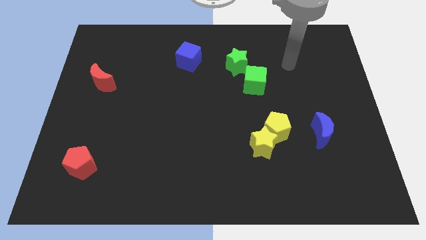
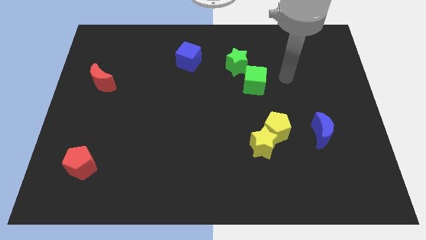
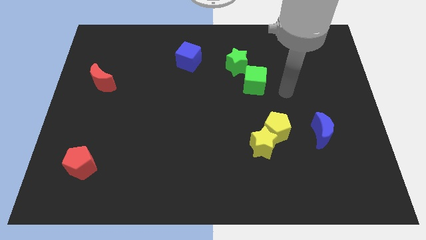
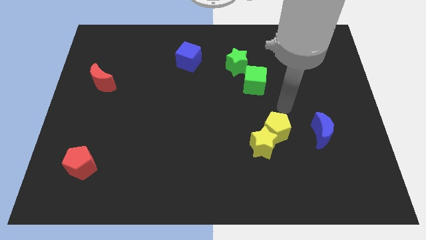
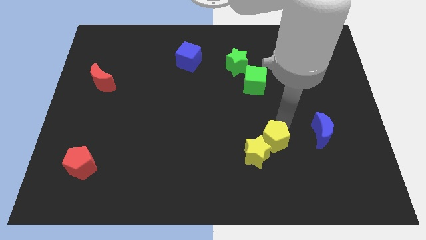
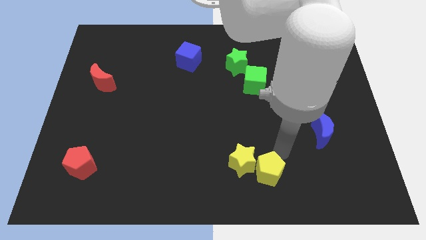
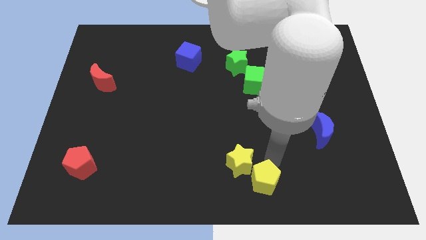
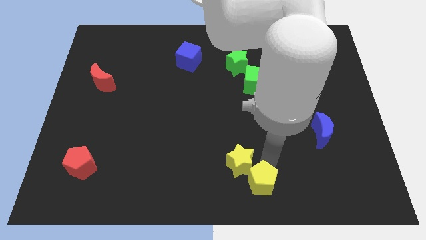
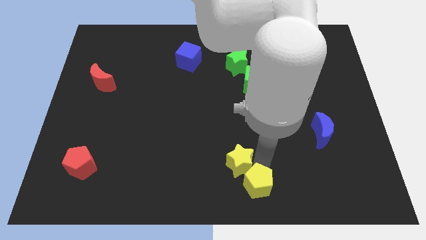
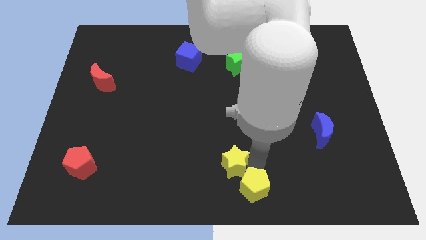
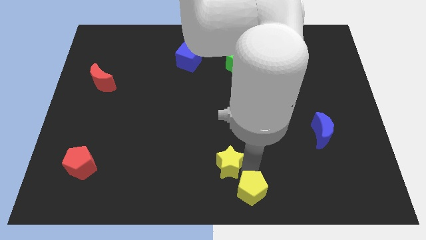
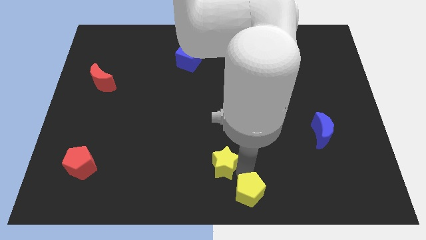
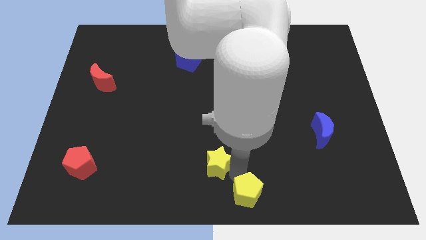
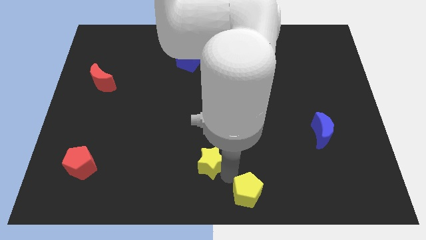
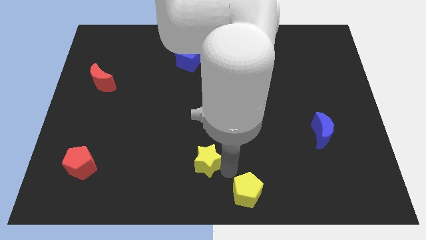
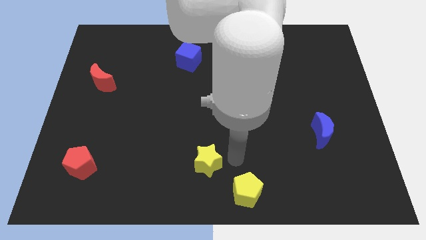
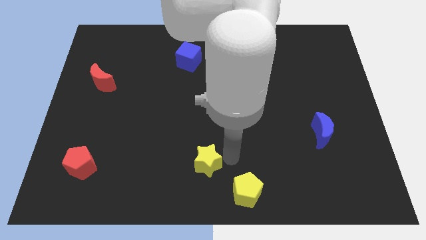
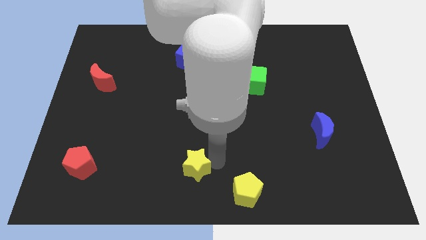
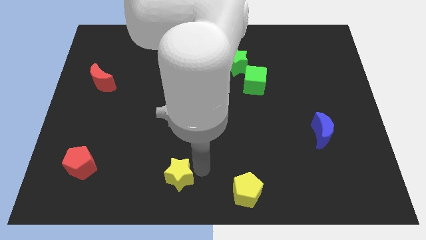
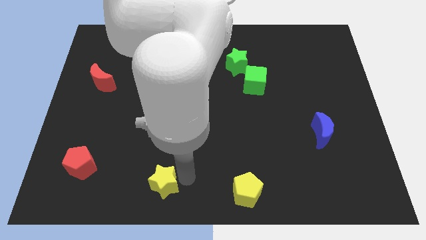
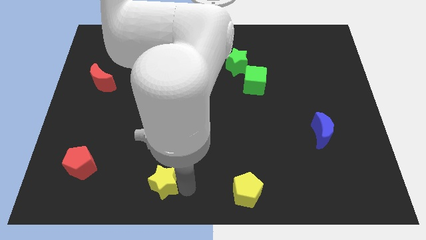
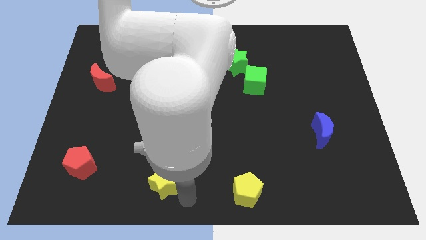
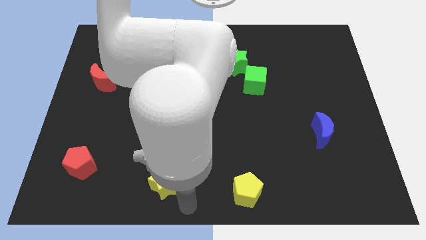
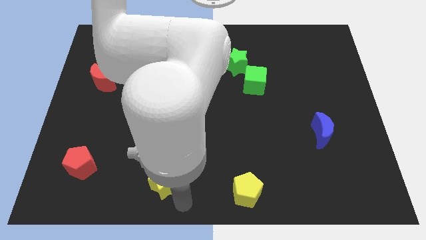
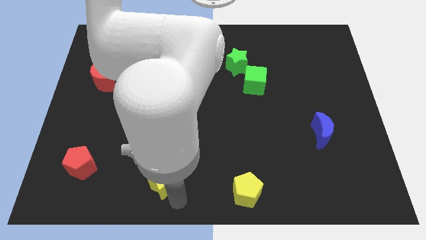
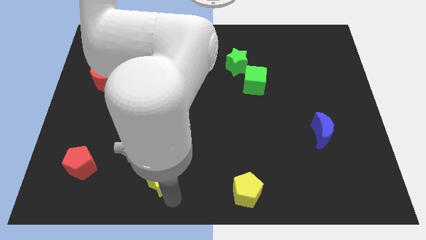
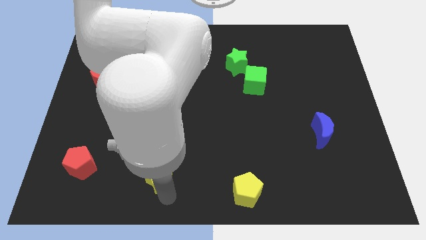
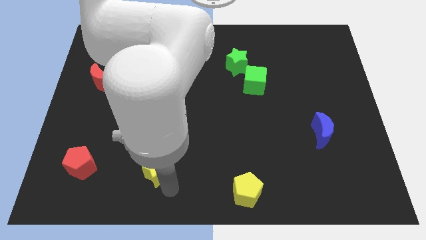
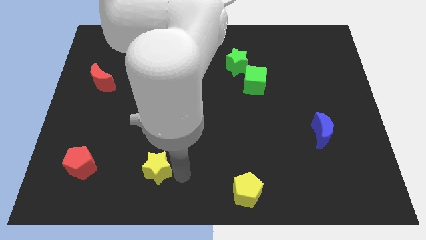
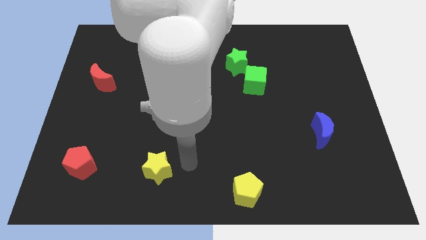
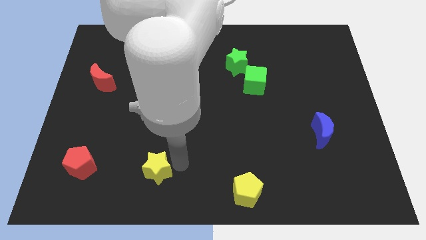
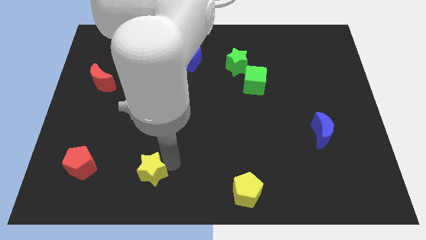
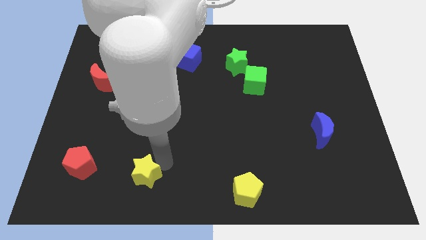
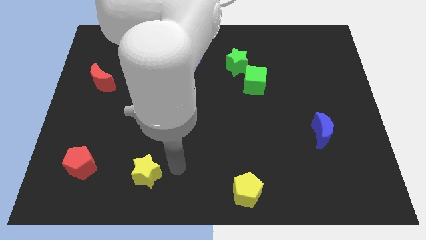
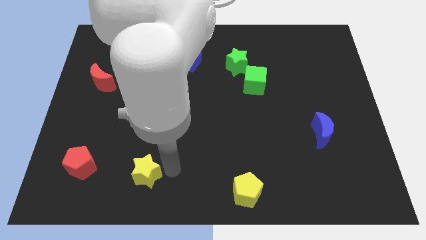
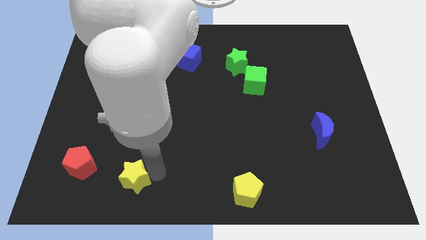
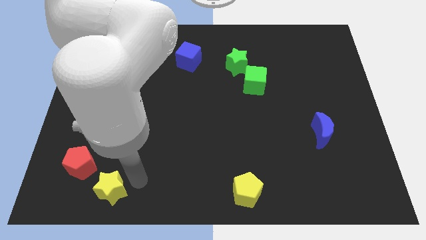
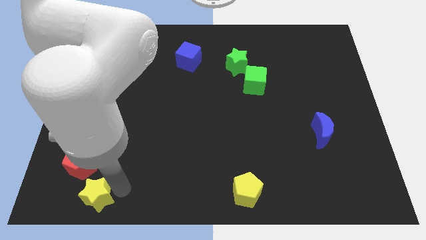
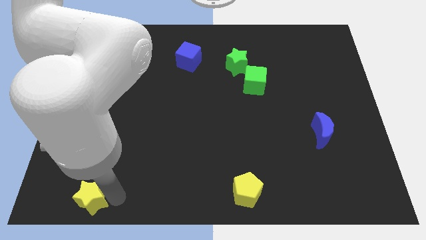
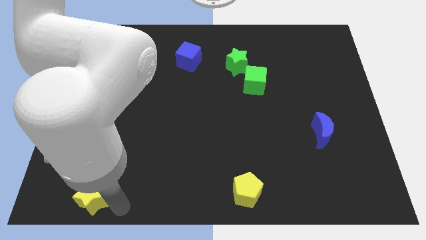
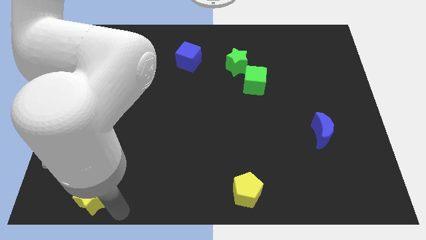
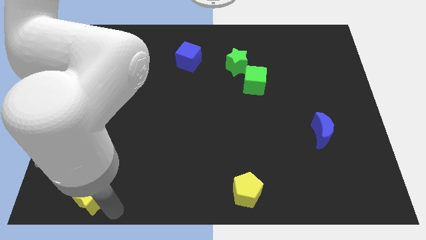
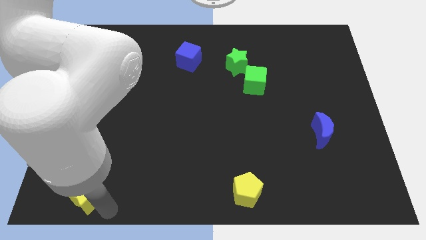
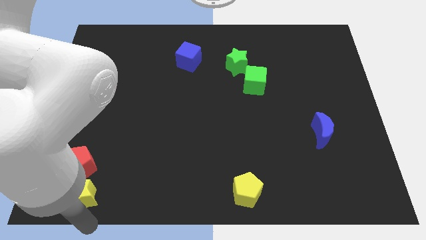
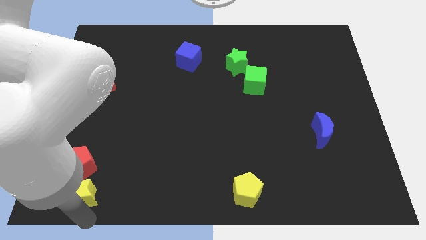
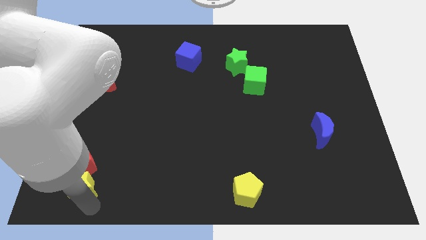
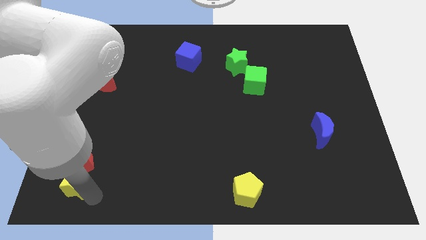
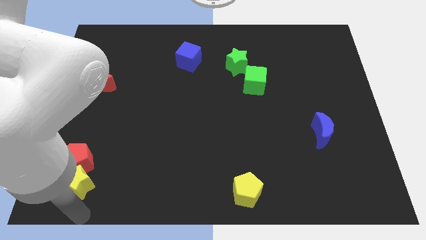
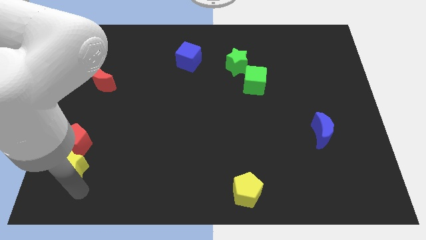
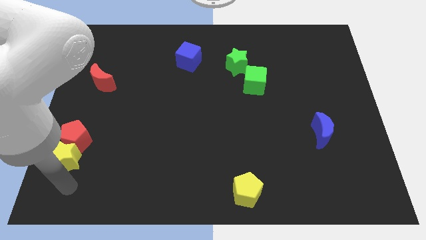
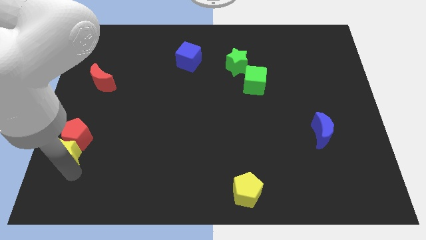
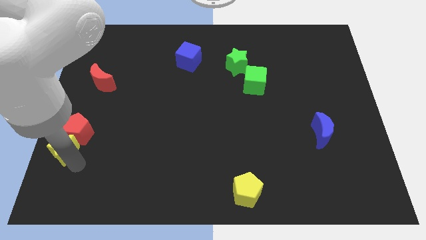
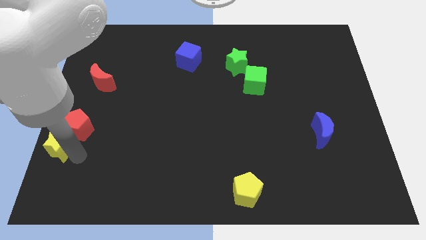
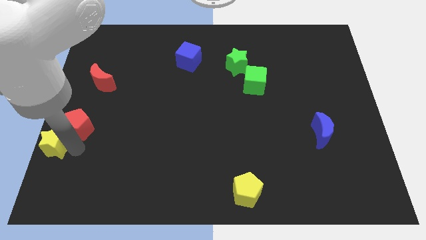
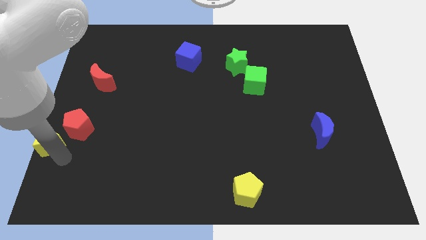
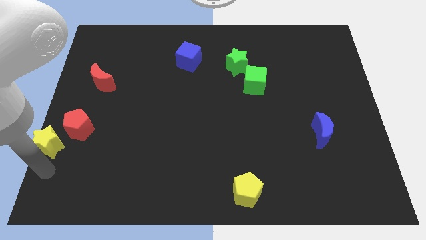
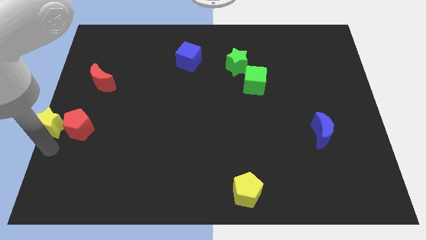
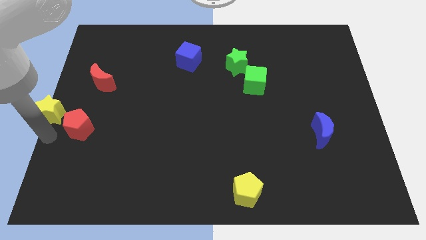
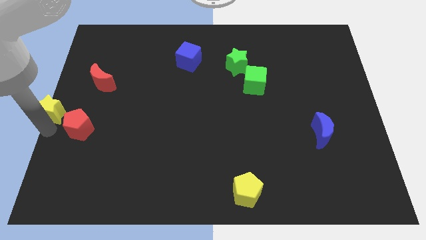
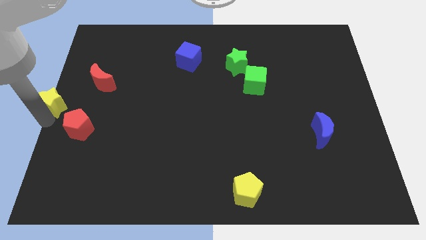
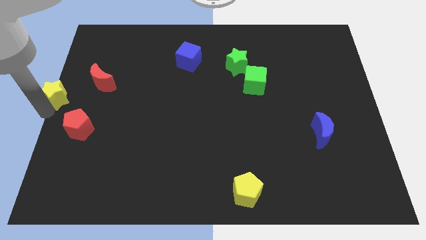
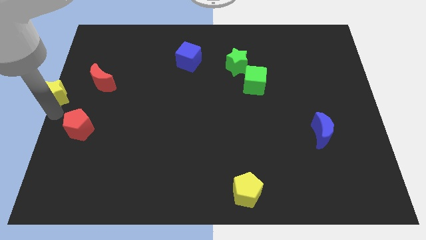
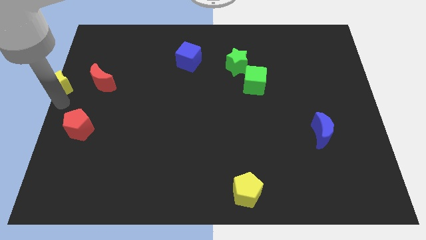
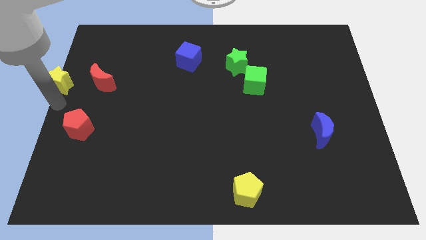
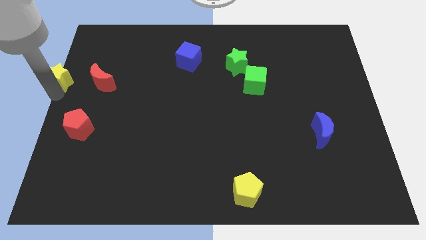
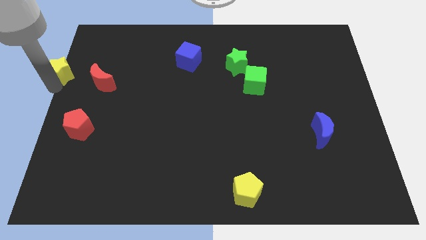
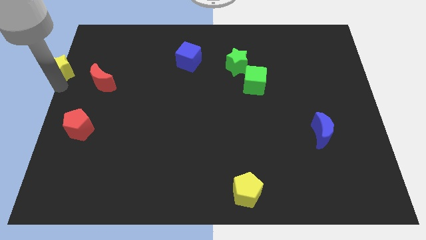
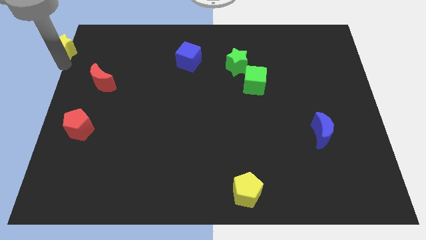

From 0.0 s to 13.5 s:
put the yellow star to the upper left corner

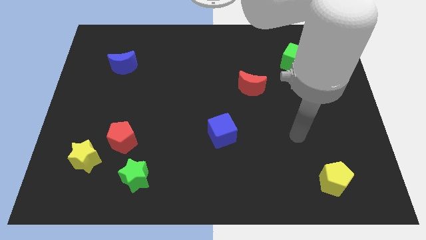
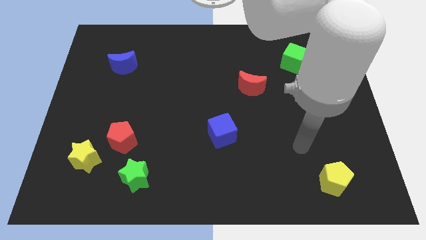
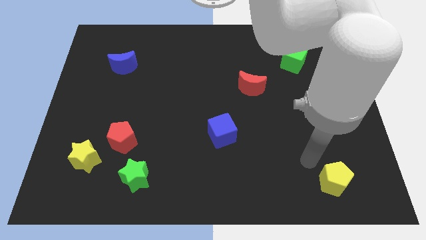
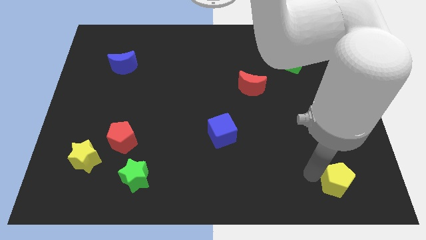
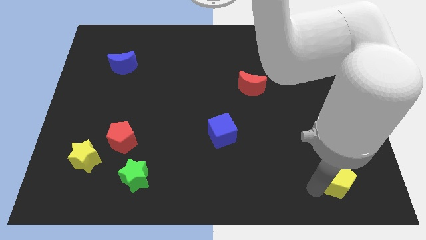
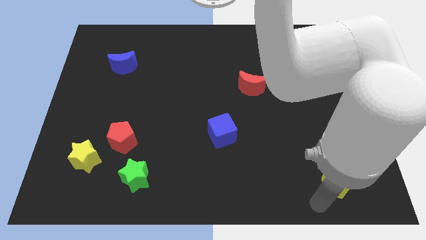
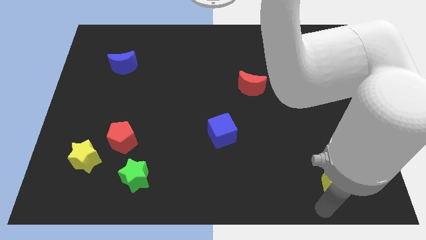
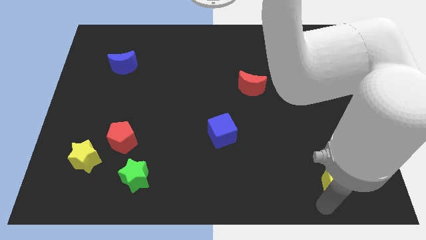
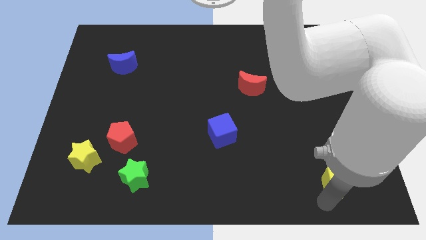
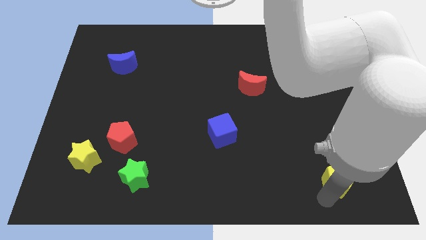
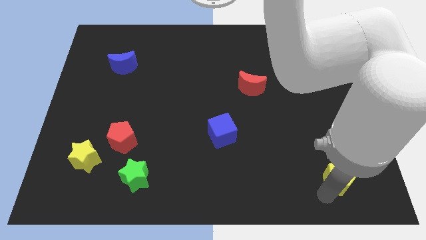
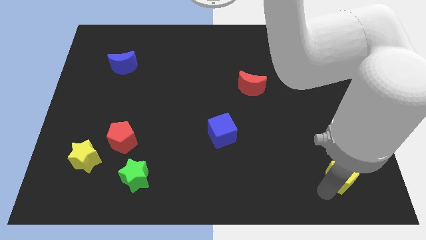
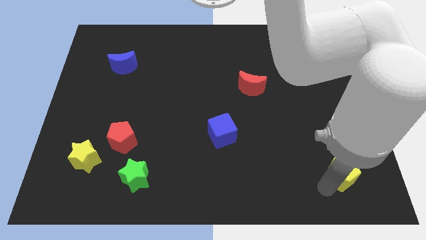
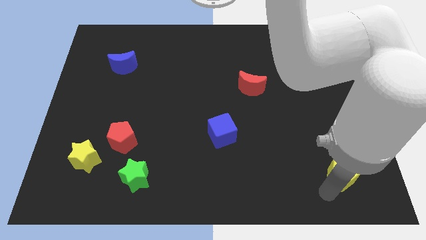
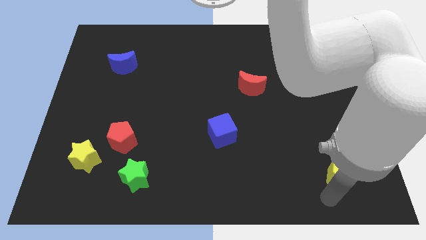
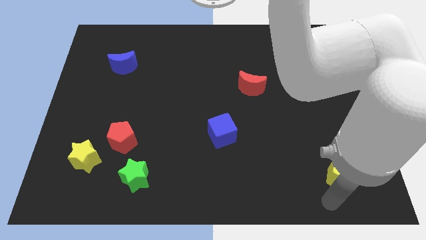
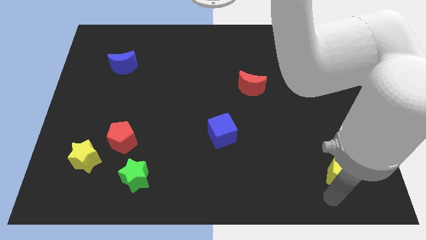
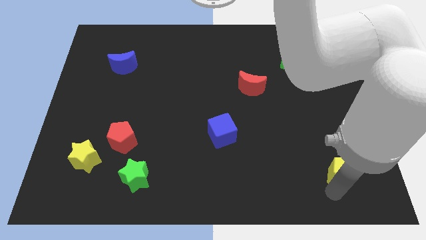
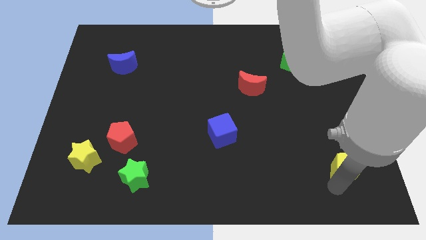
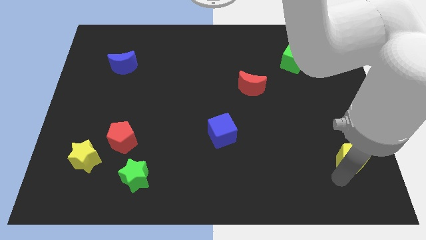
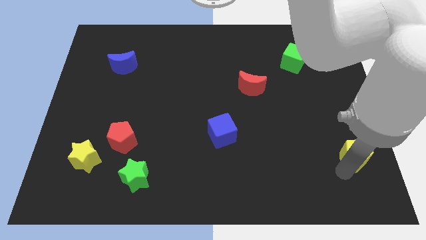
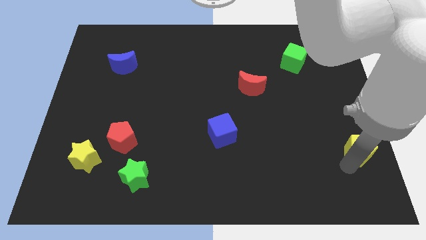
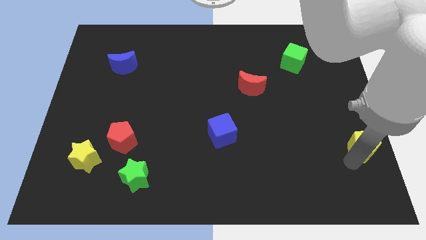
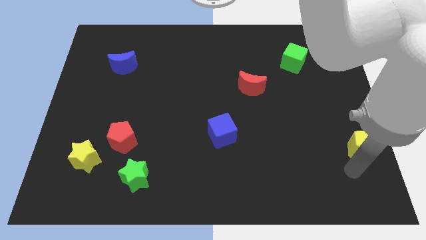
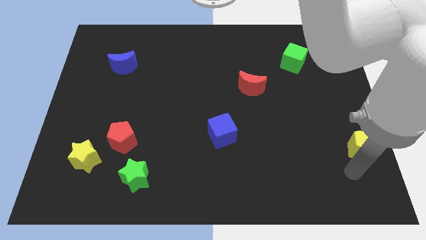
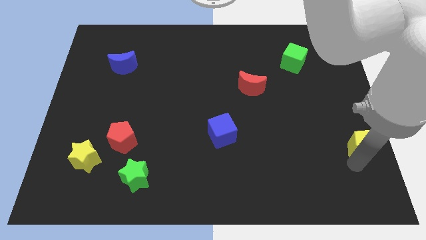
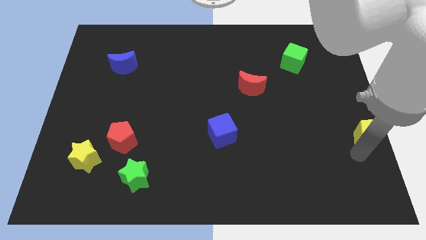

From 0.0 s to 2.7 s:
put the yellow pentagon to the right side of the board
